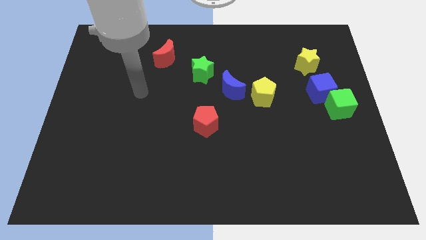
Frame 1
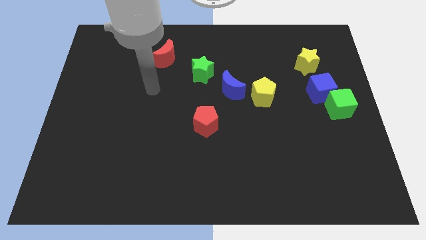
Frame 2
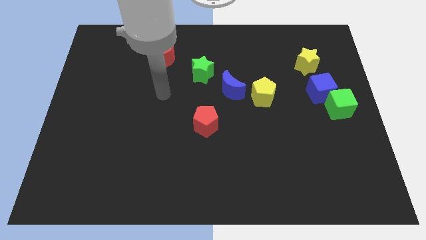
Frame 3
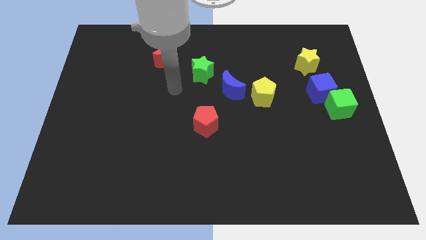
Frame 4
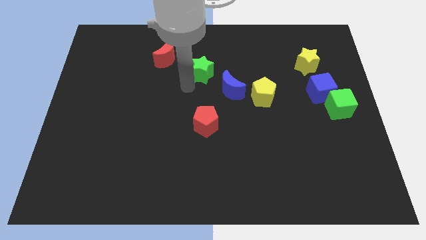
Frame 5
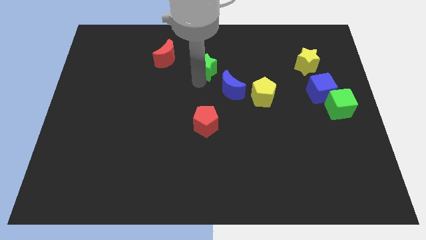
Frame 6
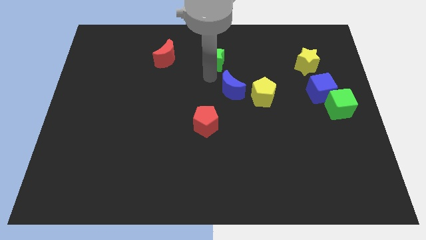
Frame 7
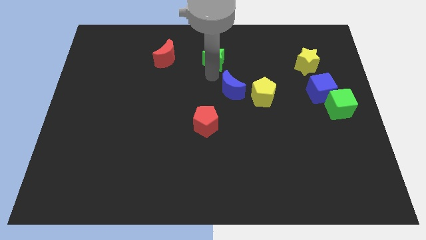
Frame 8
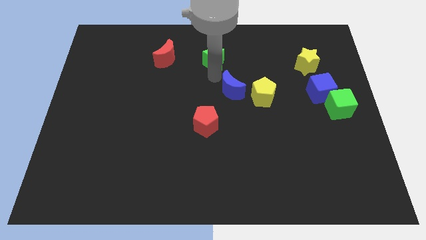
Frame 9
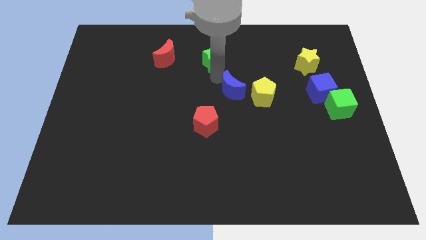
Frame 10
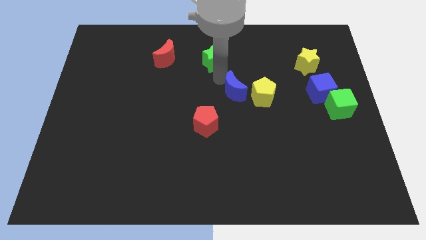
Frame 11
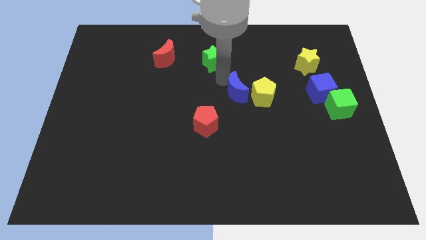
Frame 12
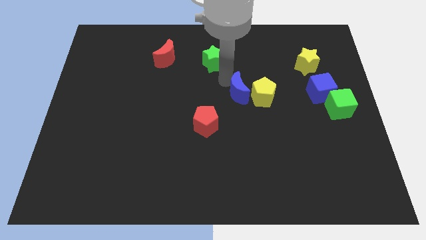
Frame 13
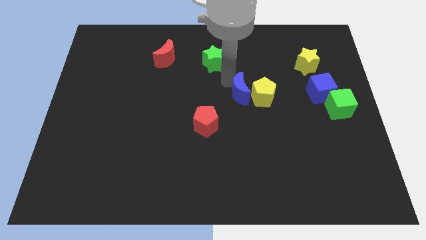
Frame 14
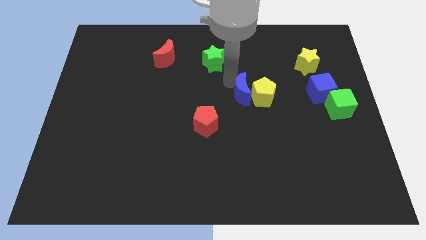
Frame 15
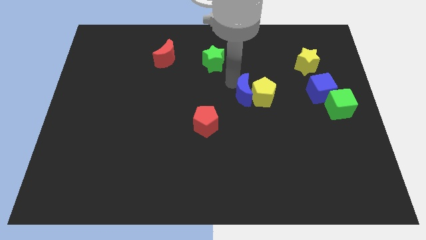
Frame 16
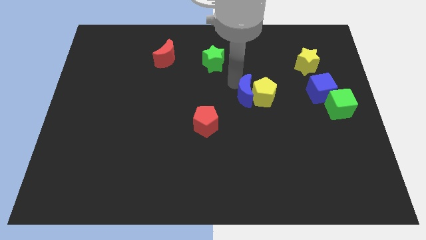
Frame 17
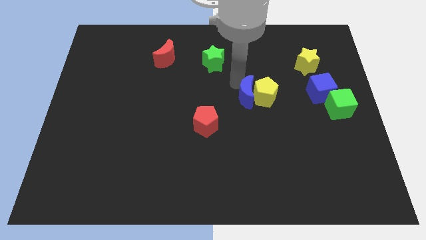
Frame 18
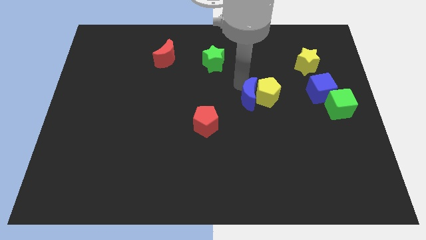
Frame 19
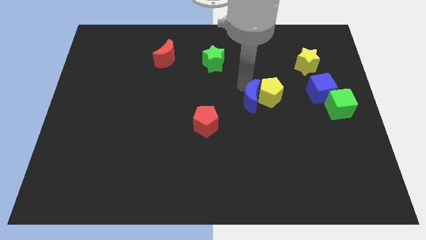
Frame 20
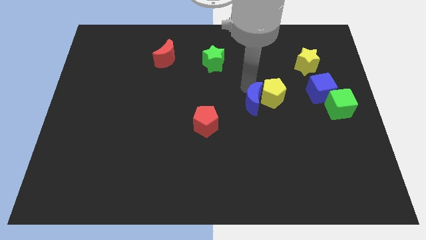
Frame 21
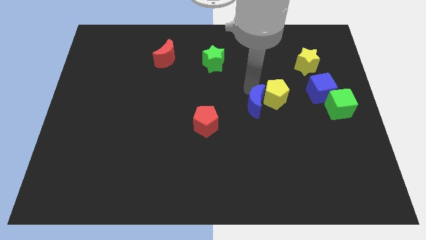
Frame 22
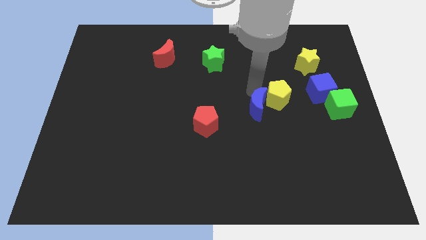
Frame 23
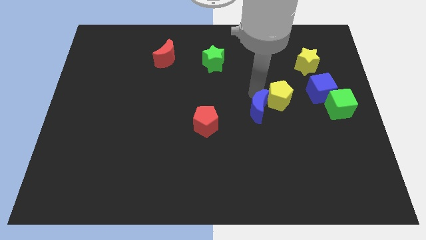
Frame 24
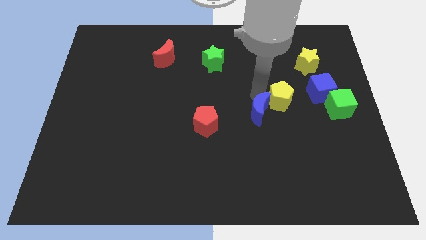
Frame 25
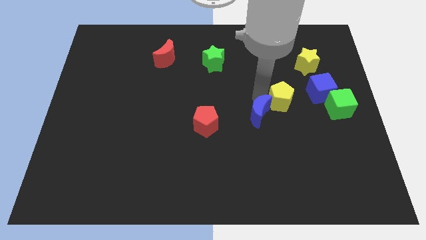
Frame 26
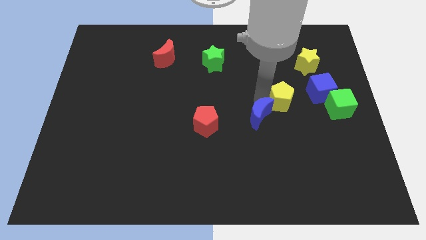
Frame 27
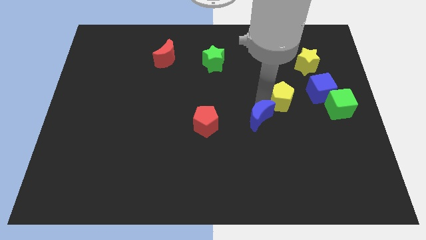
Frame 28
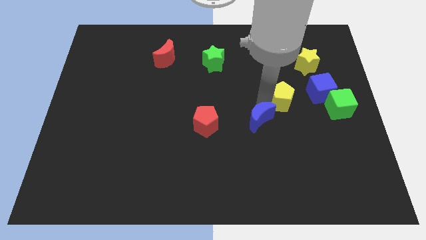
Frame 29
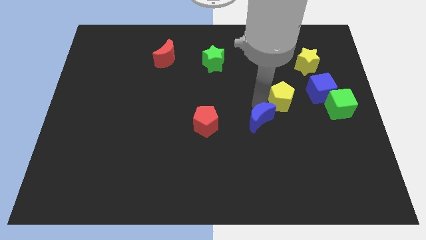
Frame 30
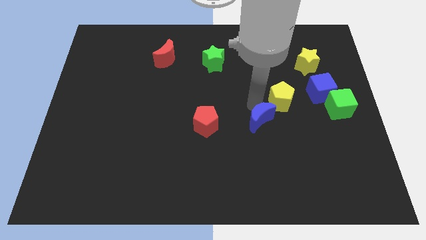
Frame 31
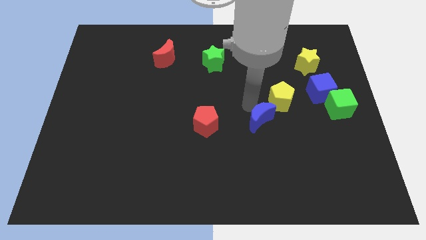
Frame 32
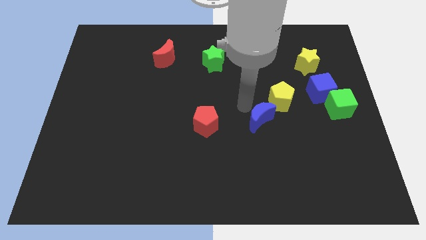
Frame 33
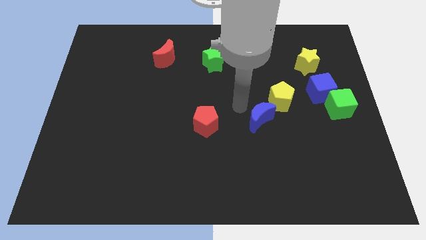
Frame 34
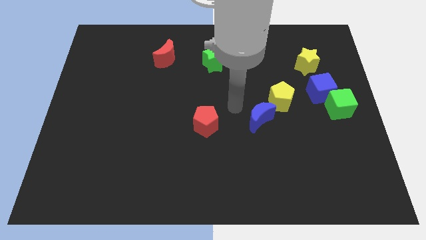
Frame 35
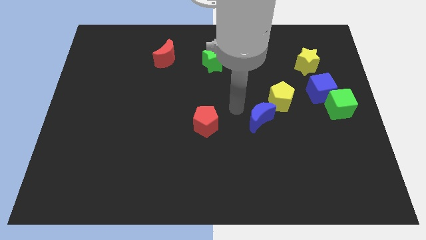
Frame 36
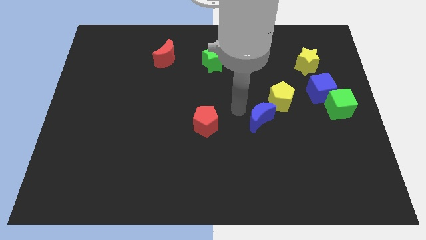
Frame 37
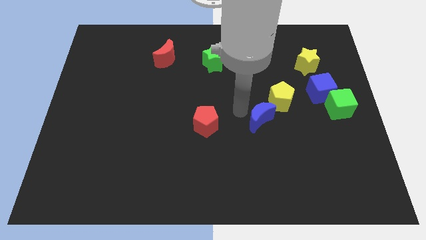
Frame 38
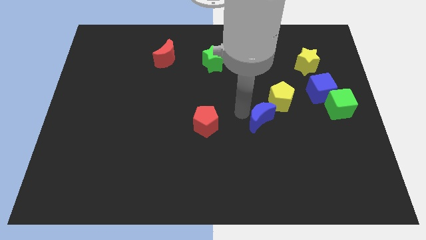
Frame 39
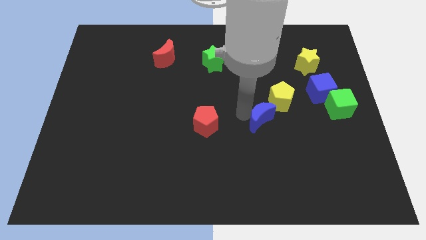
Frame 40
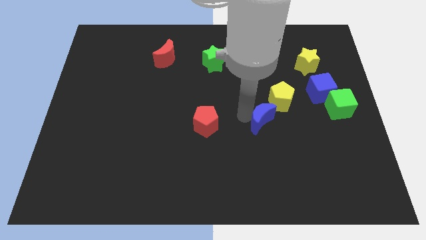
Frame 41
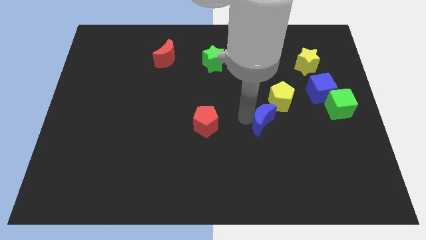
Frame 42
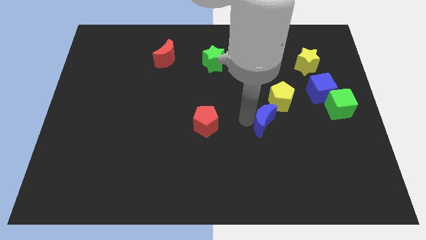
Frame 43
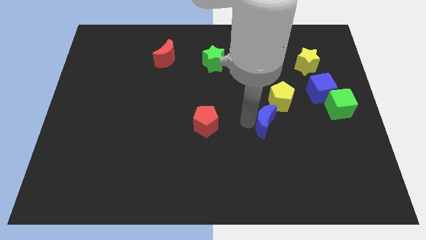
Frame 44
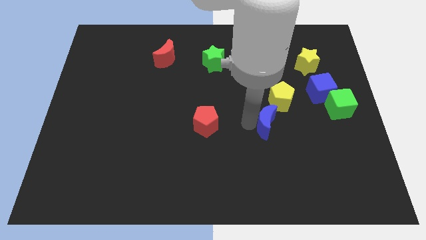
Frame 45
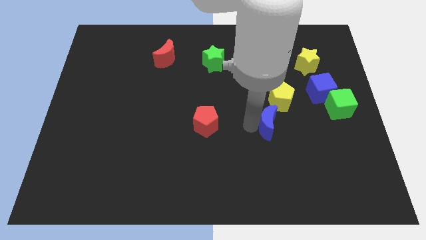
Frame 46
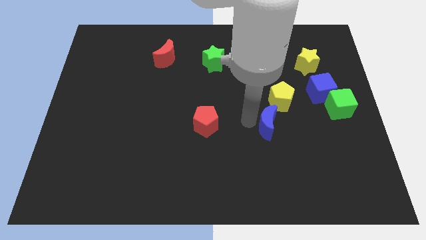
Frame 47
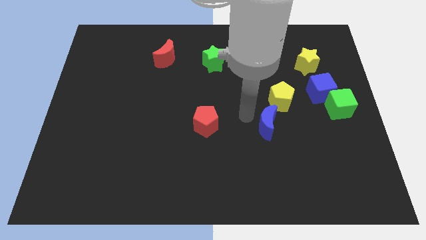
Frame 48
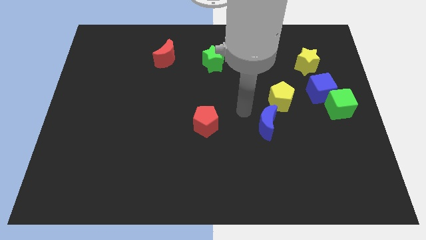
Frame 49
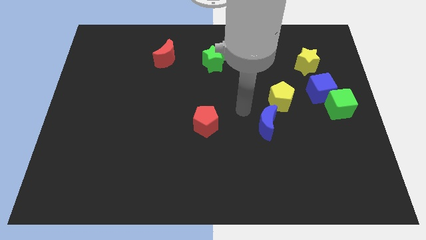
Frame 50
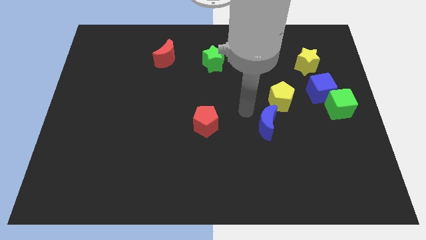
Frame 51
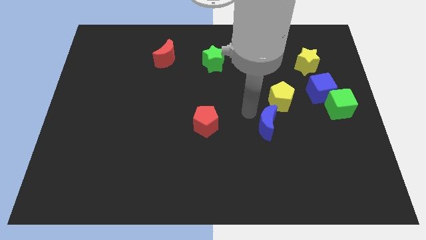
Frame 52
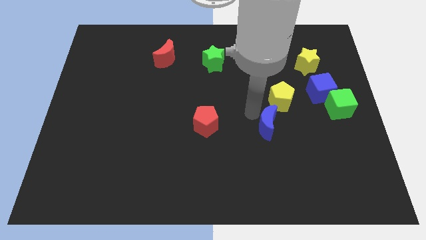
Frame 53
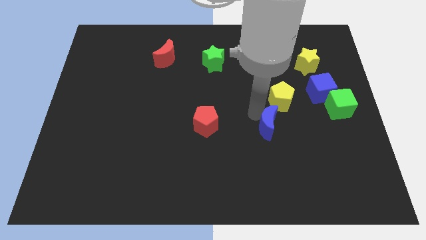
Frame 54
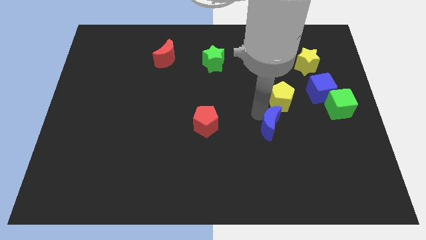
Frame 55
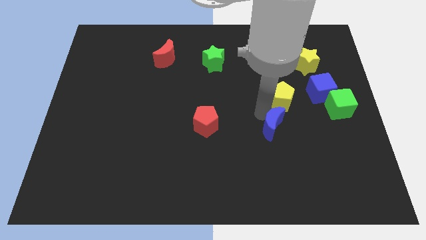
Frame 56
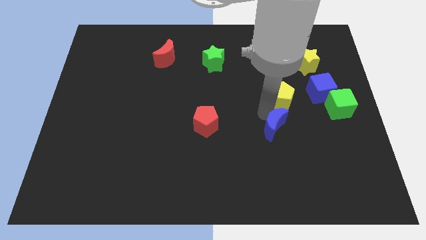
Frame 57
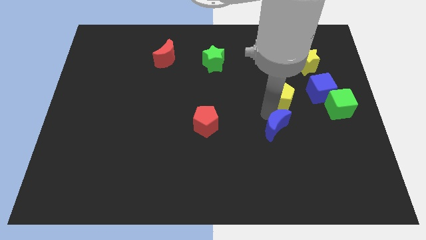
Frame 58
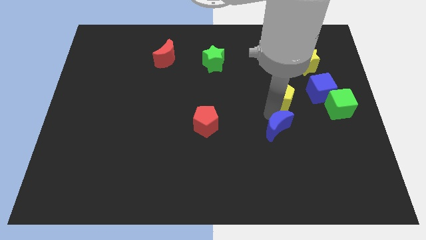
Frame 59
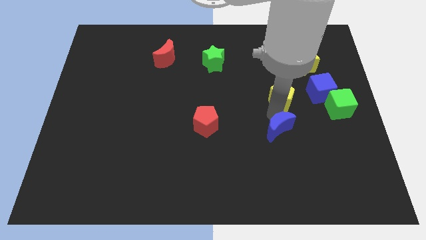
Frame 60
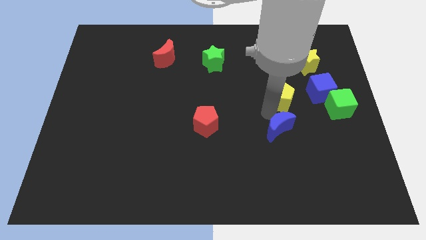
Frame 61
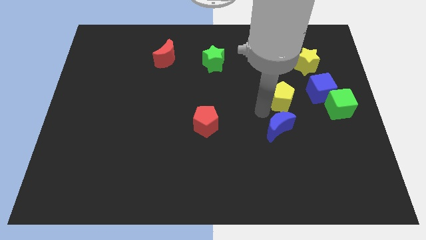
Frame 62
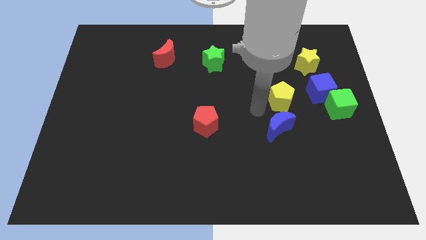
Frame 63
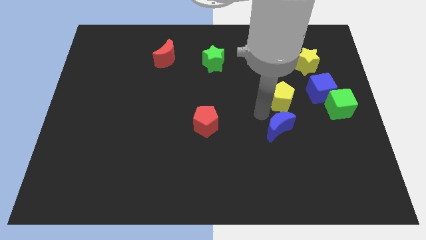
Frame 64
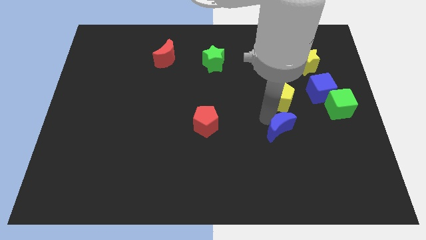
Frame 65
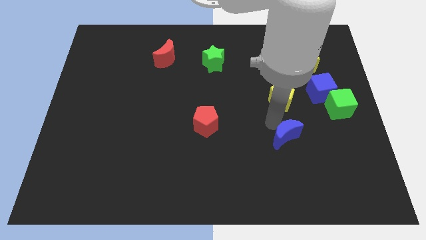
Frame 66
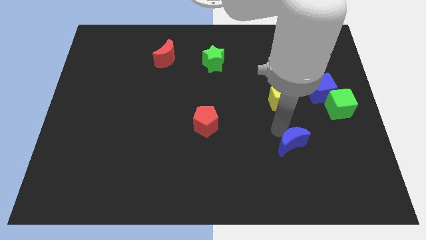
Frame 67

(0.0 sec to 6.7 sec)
slide the blue moon down and to the right

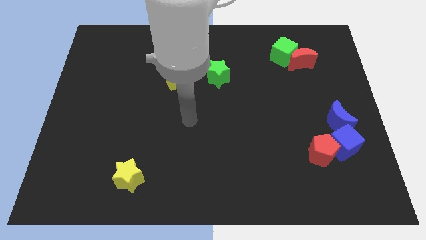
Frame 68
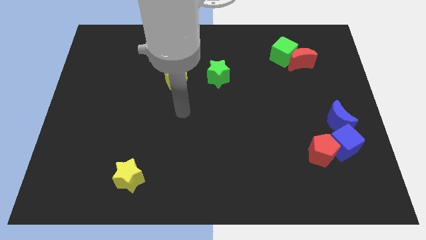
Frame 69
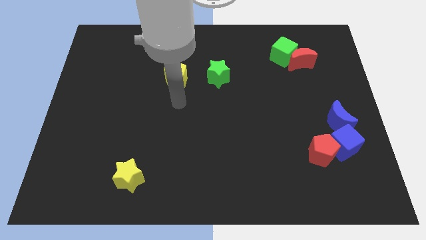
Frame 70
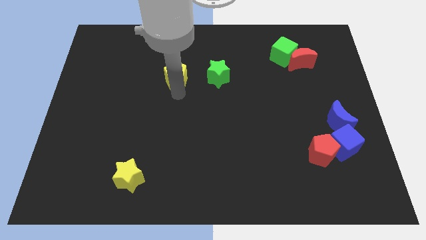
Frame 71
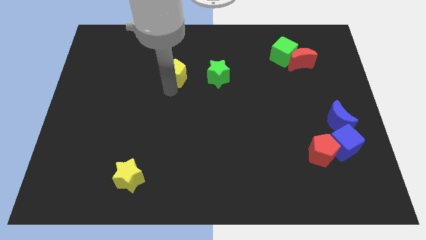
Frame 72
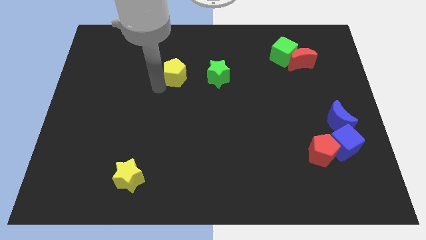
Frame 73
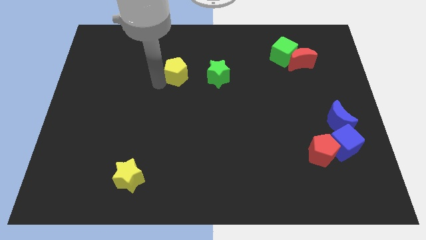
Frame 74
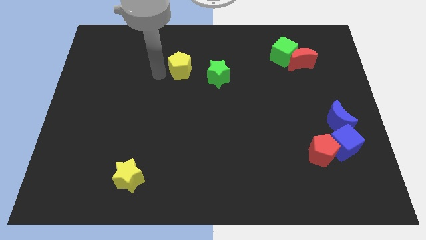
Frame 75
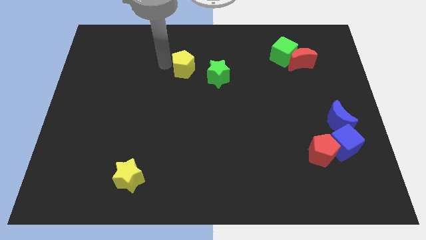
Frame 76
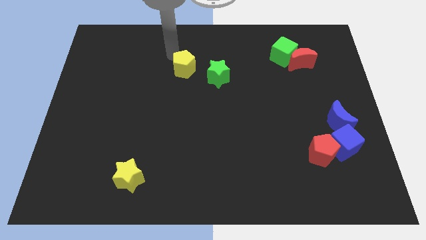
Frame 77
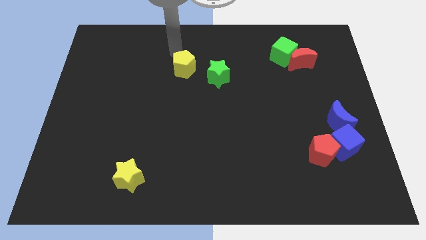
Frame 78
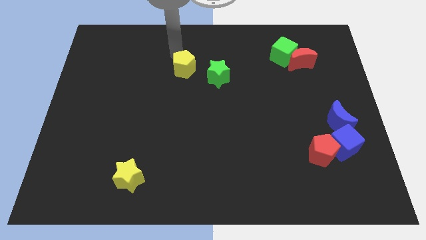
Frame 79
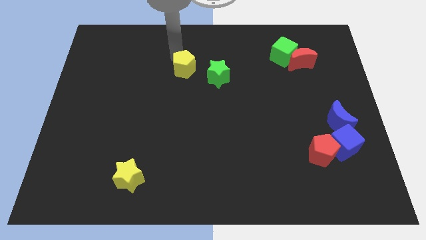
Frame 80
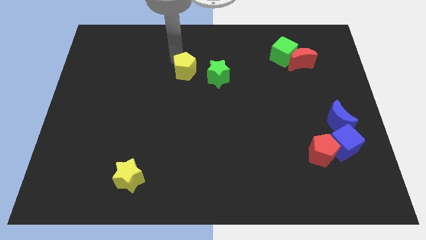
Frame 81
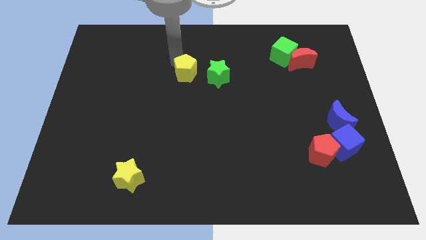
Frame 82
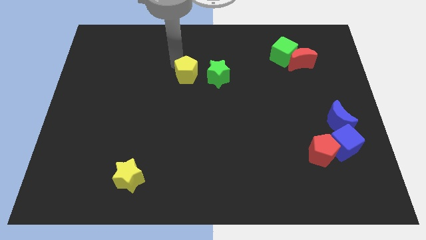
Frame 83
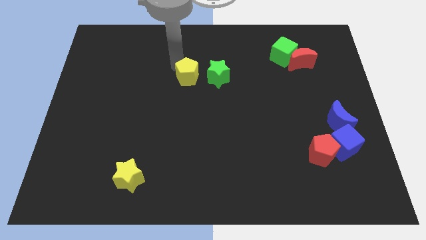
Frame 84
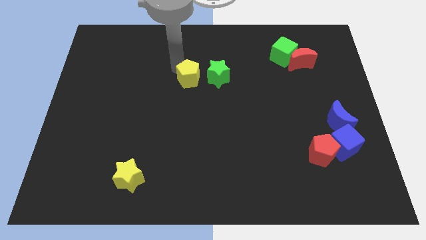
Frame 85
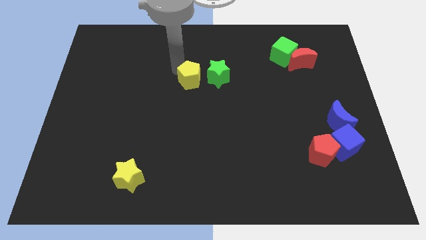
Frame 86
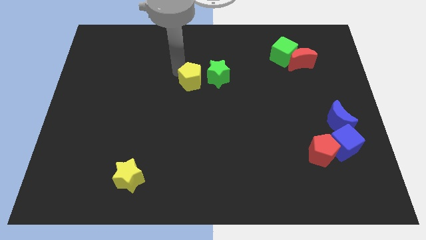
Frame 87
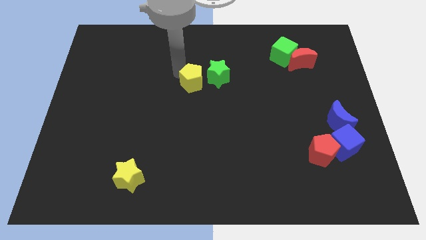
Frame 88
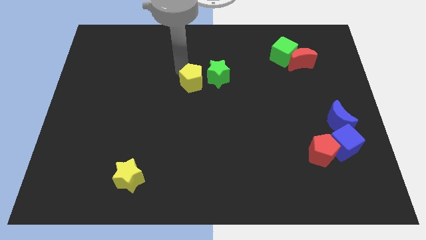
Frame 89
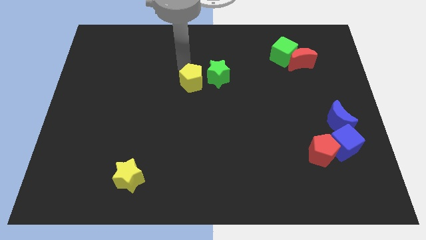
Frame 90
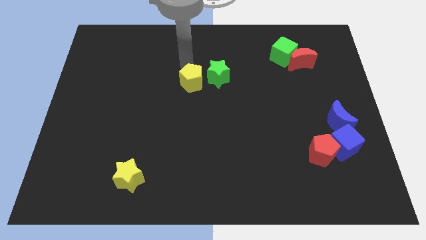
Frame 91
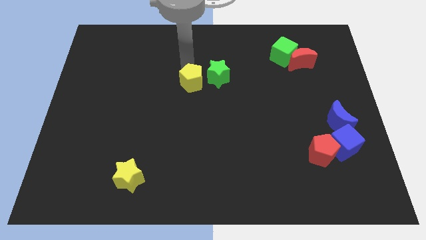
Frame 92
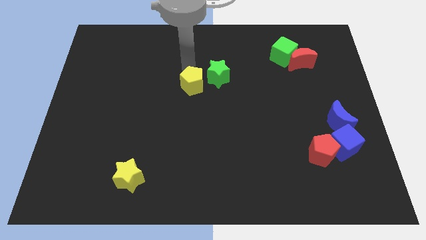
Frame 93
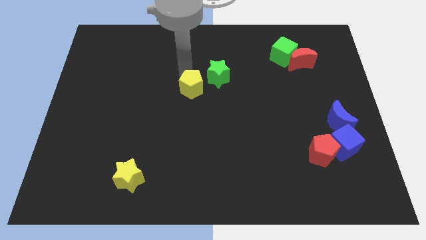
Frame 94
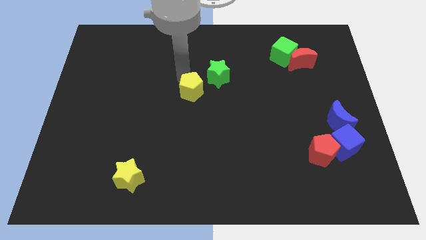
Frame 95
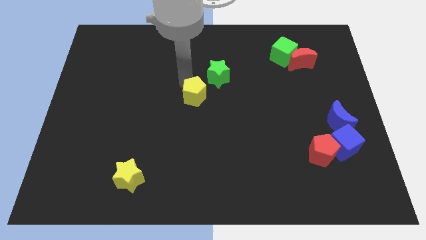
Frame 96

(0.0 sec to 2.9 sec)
push the yellow pentagon somewhat downwards and right diagonally
